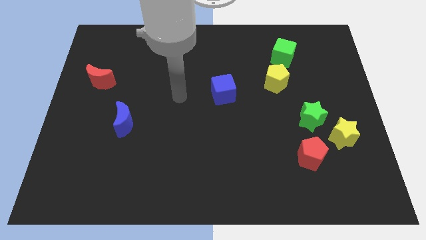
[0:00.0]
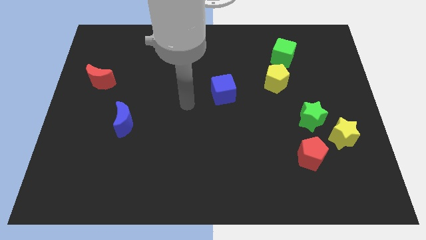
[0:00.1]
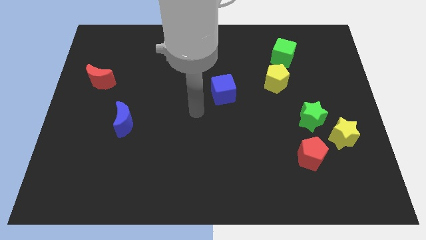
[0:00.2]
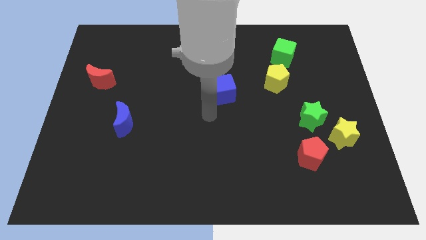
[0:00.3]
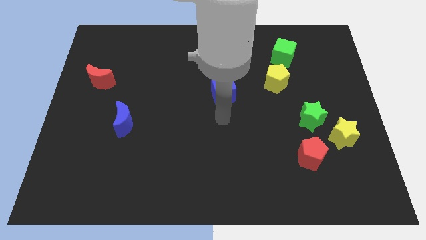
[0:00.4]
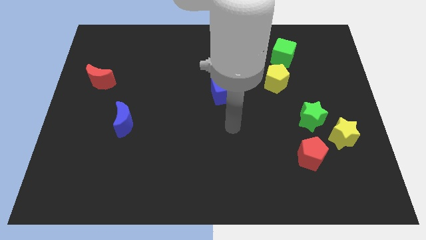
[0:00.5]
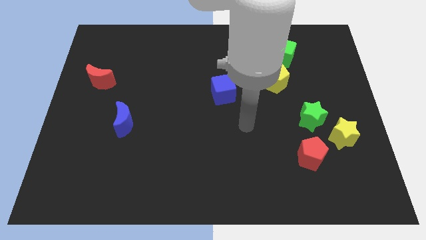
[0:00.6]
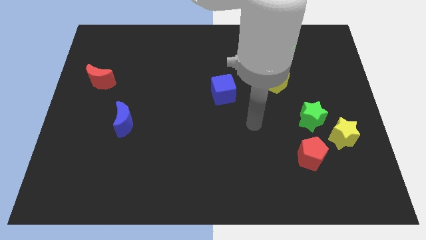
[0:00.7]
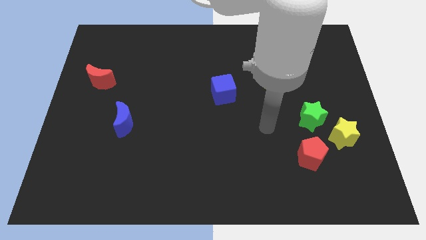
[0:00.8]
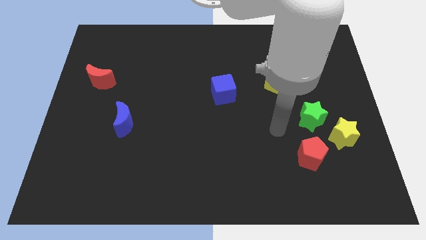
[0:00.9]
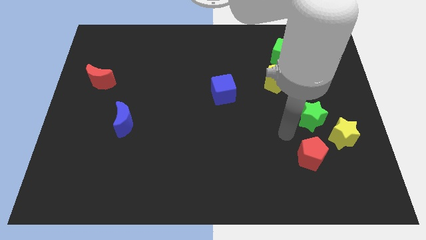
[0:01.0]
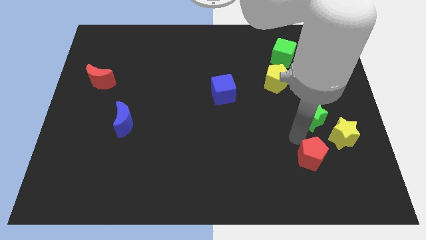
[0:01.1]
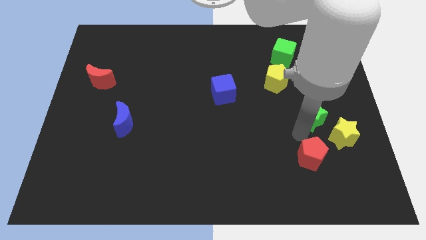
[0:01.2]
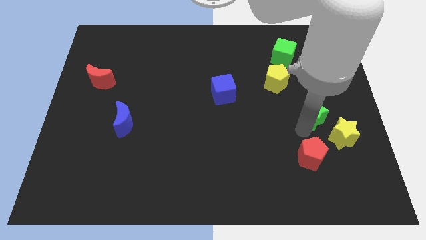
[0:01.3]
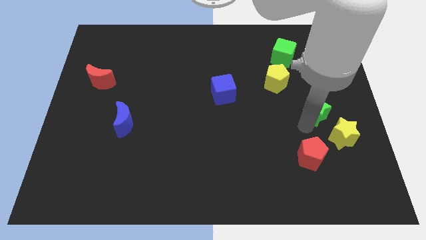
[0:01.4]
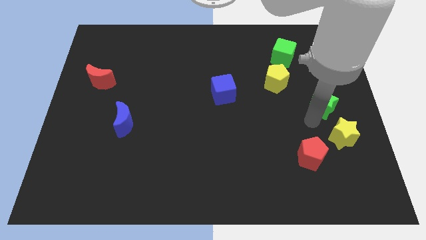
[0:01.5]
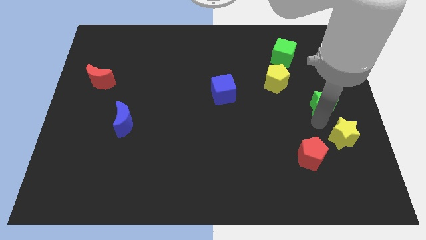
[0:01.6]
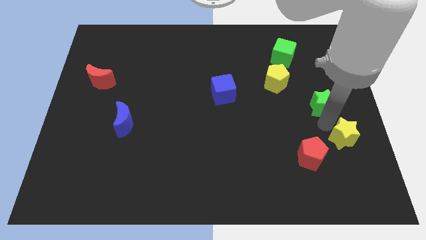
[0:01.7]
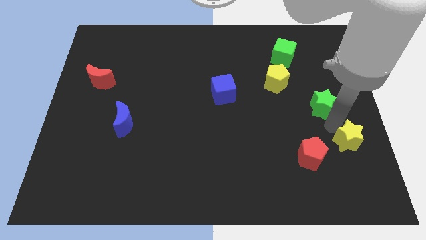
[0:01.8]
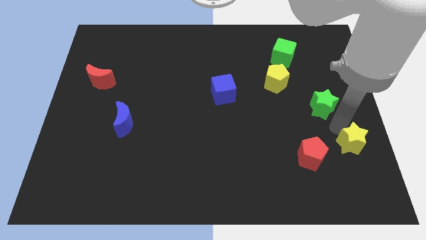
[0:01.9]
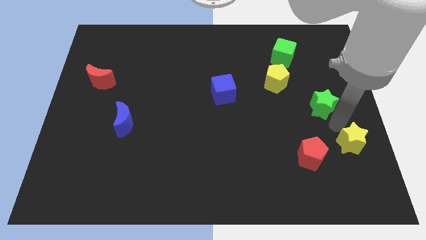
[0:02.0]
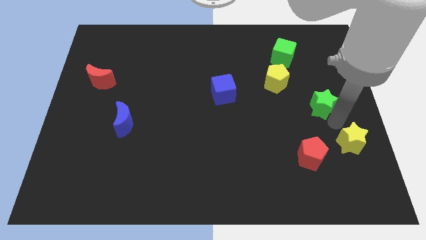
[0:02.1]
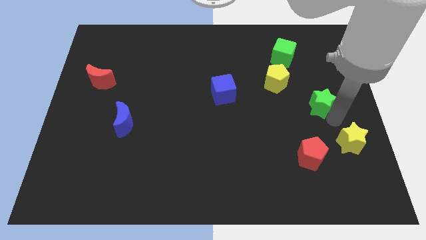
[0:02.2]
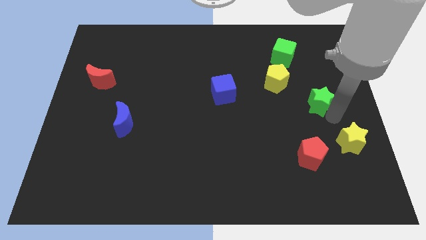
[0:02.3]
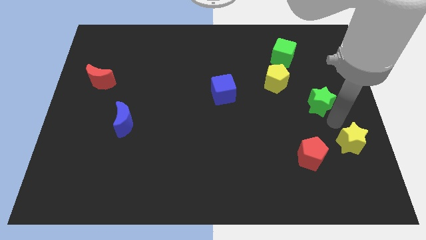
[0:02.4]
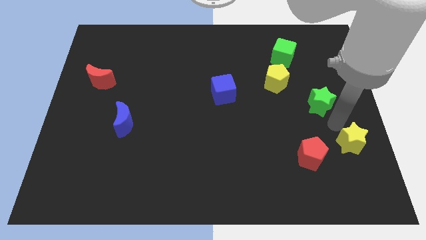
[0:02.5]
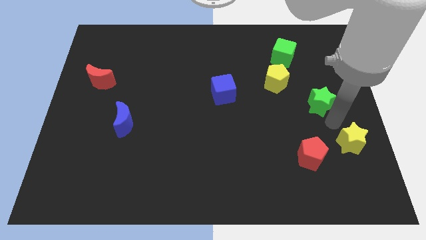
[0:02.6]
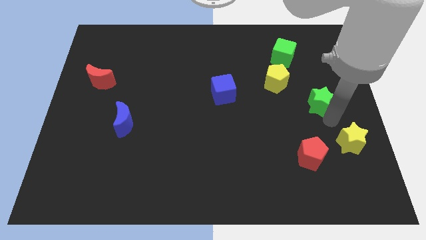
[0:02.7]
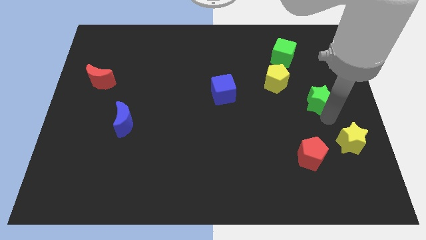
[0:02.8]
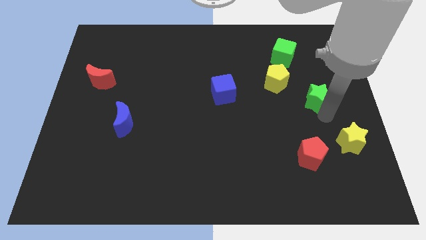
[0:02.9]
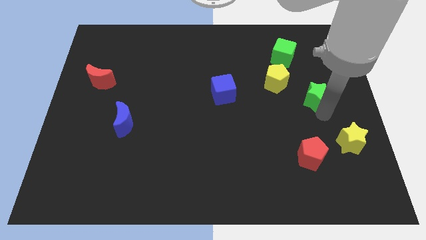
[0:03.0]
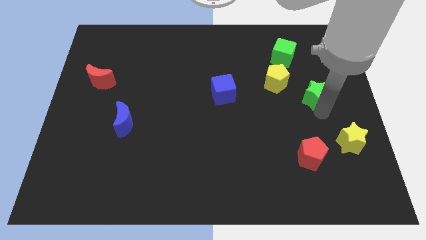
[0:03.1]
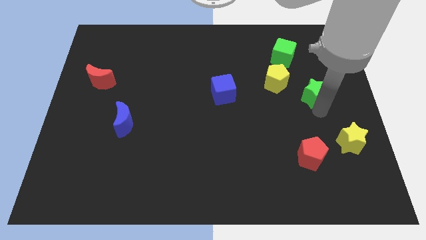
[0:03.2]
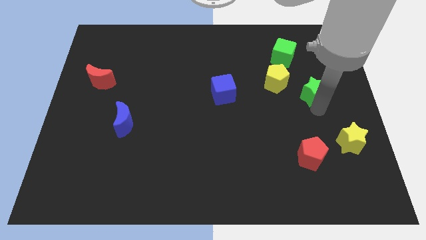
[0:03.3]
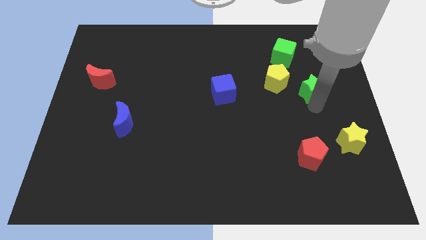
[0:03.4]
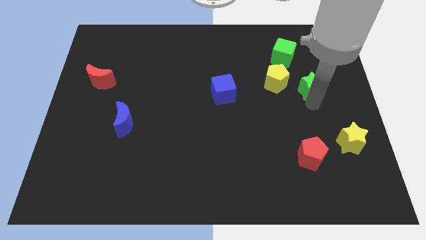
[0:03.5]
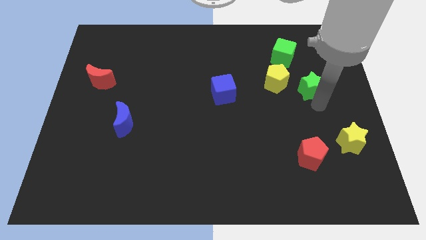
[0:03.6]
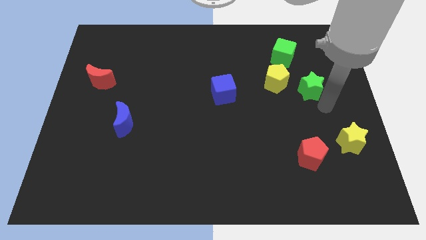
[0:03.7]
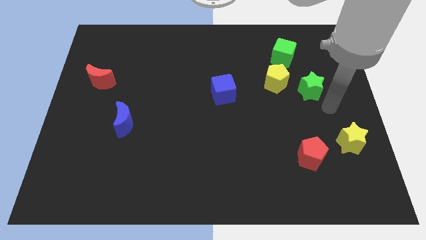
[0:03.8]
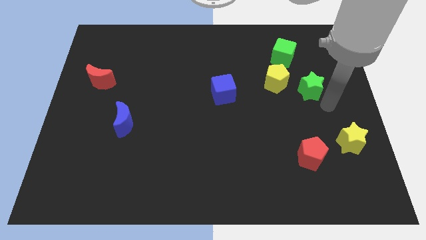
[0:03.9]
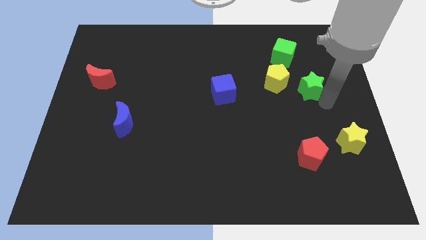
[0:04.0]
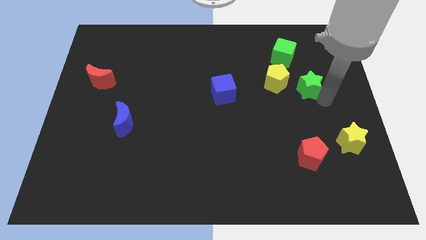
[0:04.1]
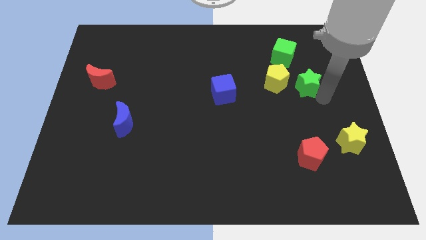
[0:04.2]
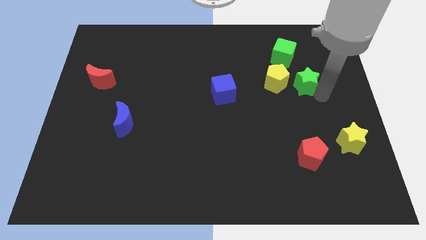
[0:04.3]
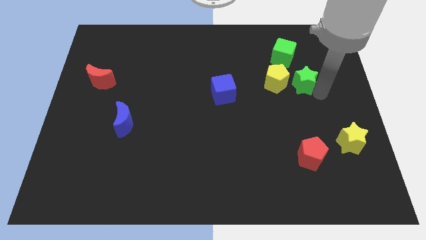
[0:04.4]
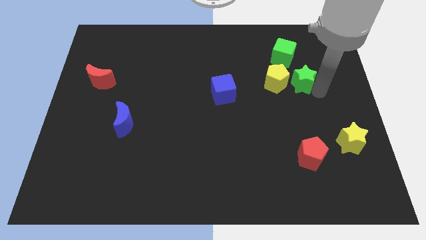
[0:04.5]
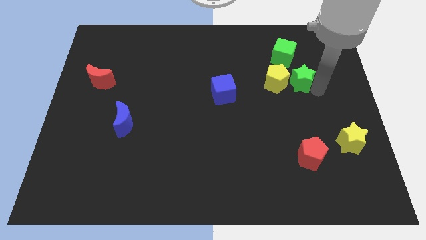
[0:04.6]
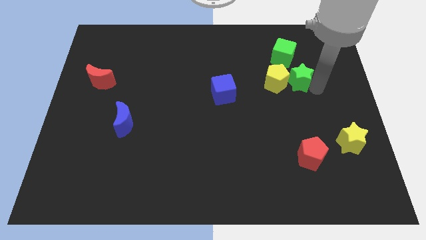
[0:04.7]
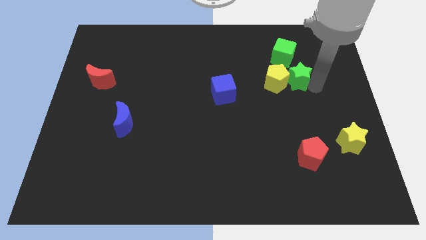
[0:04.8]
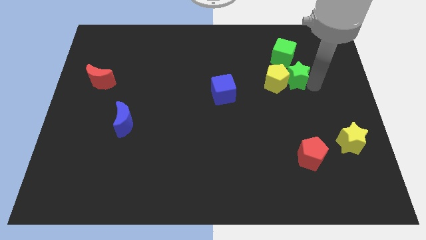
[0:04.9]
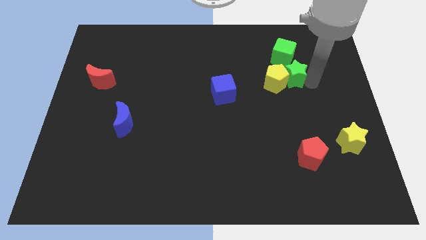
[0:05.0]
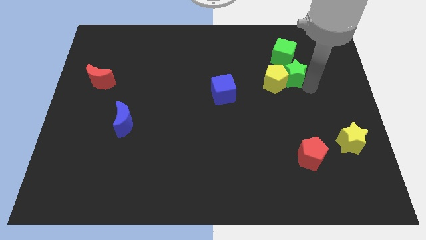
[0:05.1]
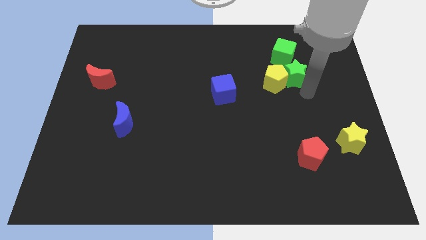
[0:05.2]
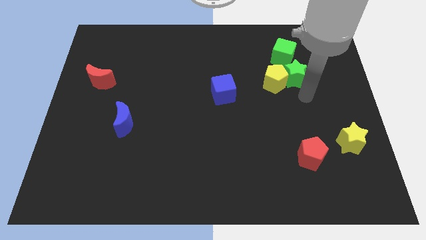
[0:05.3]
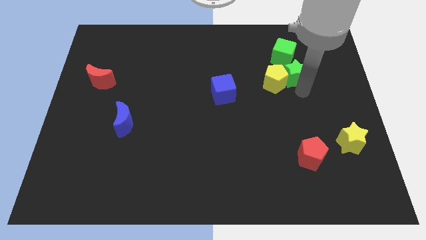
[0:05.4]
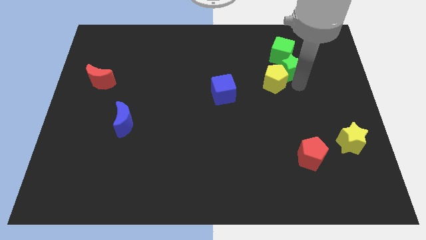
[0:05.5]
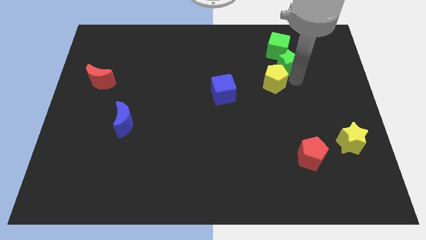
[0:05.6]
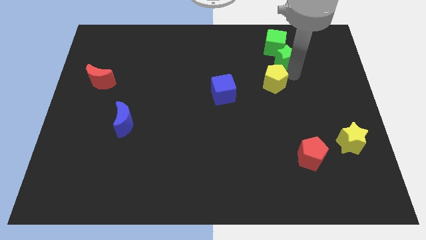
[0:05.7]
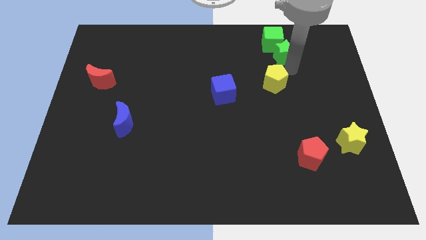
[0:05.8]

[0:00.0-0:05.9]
put the green star close to the green cube

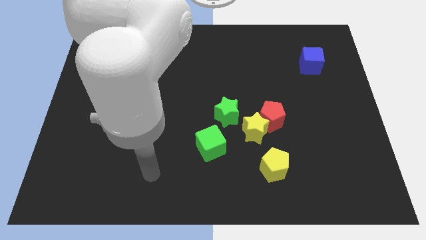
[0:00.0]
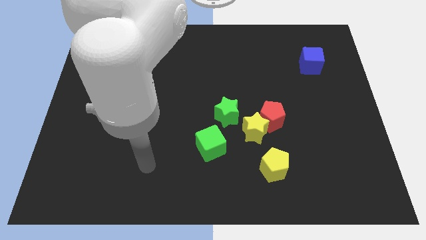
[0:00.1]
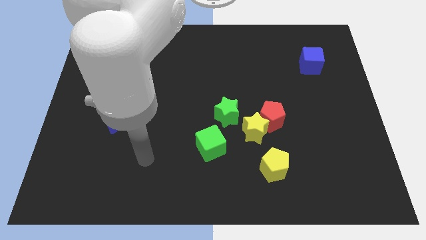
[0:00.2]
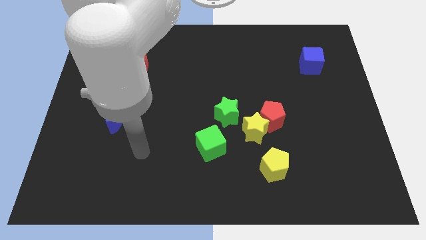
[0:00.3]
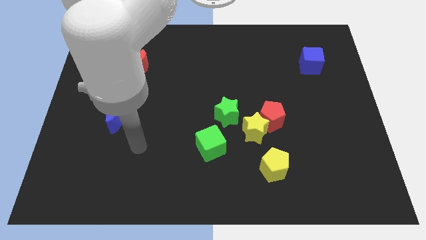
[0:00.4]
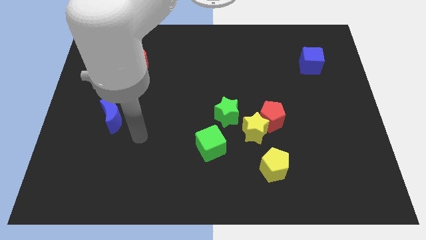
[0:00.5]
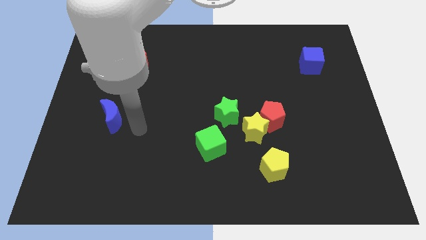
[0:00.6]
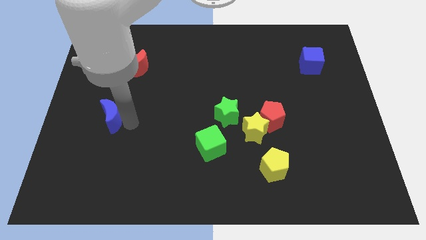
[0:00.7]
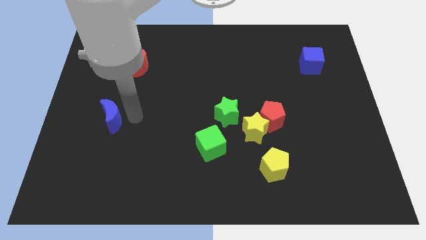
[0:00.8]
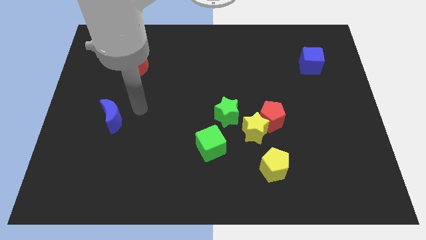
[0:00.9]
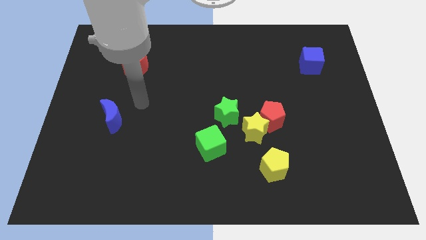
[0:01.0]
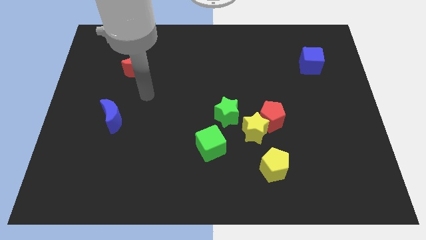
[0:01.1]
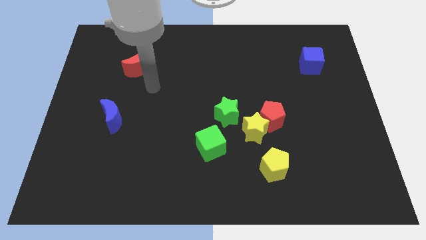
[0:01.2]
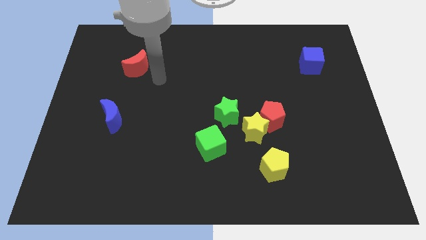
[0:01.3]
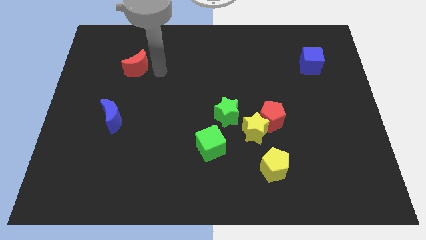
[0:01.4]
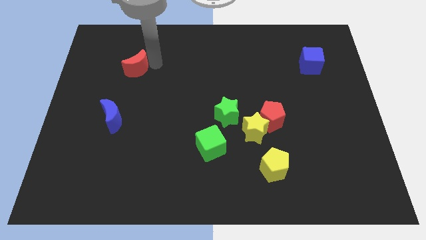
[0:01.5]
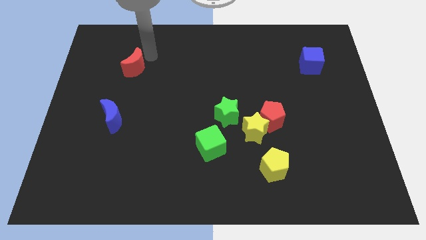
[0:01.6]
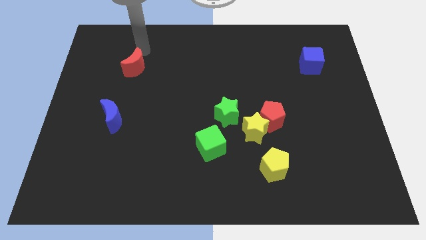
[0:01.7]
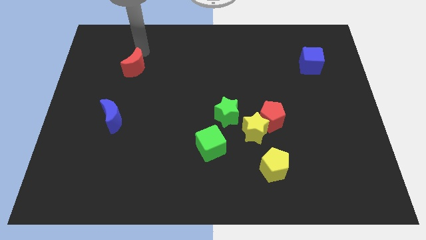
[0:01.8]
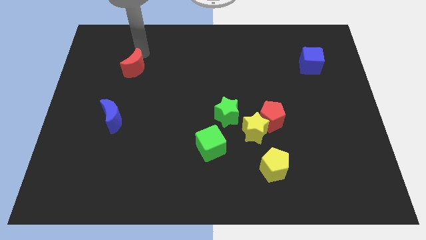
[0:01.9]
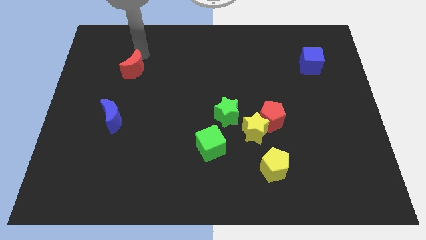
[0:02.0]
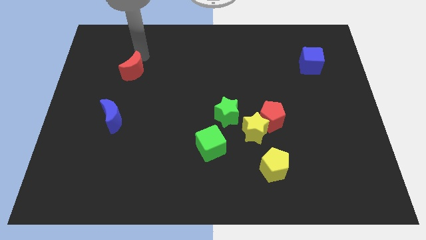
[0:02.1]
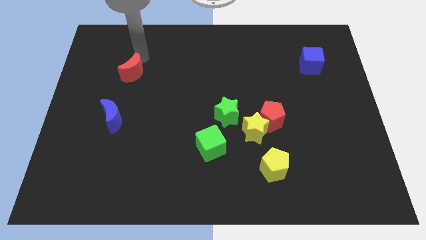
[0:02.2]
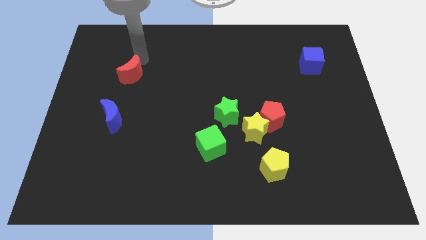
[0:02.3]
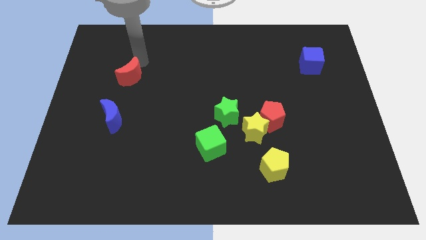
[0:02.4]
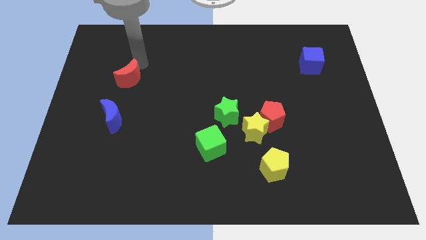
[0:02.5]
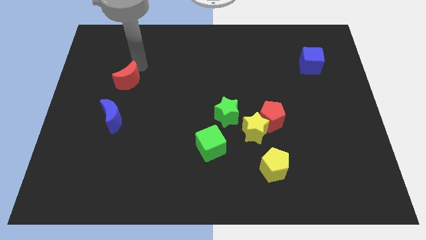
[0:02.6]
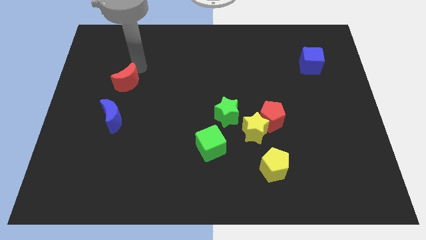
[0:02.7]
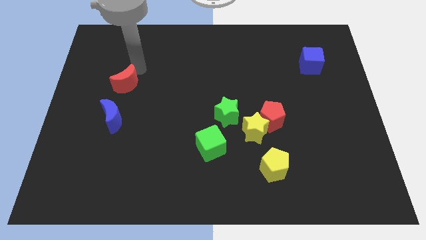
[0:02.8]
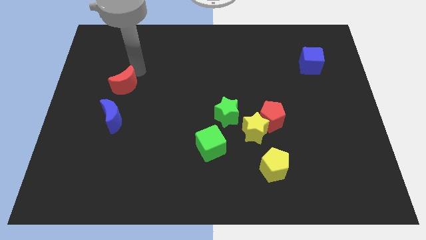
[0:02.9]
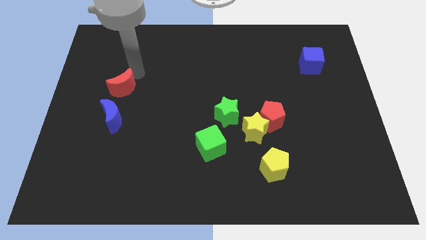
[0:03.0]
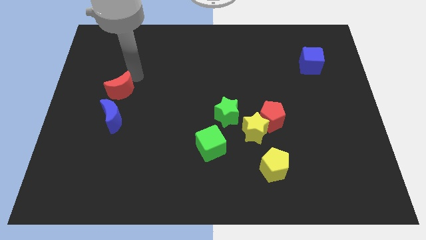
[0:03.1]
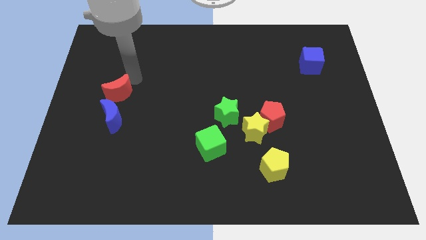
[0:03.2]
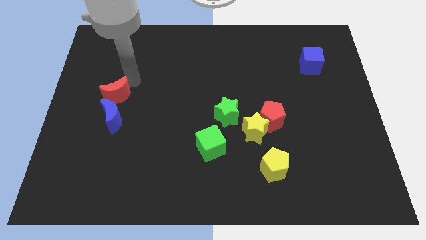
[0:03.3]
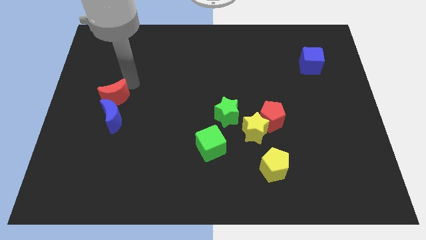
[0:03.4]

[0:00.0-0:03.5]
slide the red moon towards the blue moon
